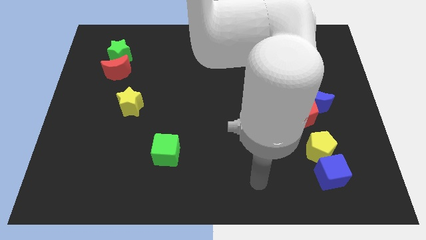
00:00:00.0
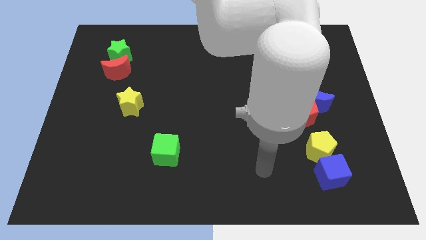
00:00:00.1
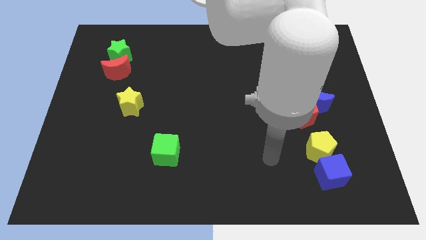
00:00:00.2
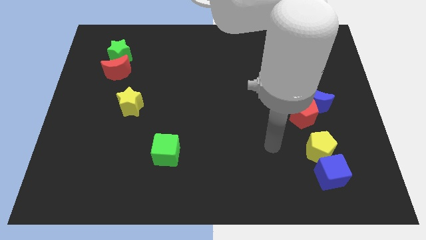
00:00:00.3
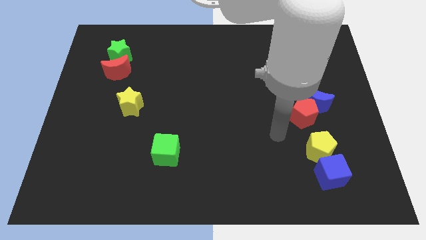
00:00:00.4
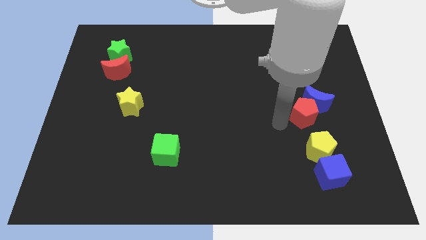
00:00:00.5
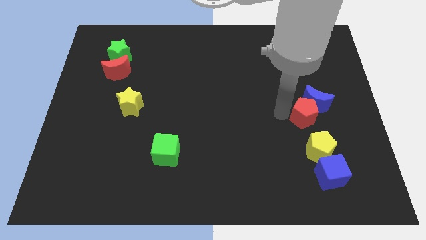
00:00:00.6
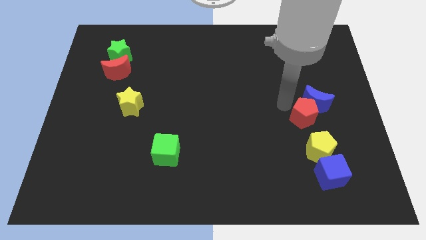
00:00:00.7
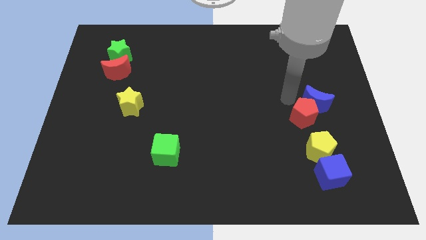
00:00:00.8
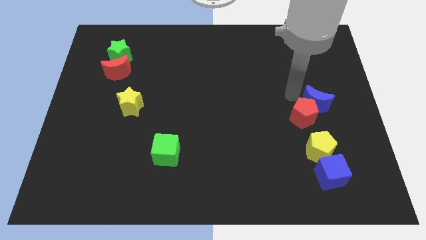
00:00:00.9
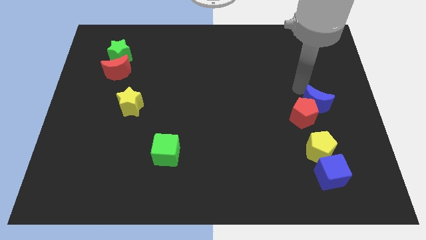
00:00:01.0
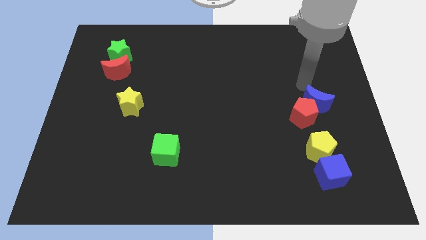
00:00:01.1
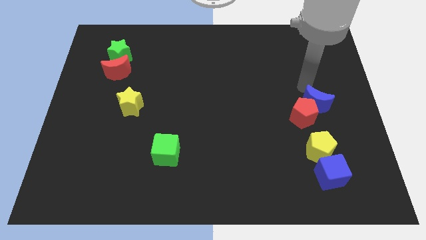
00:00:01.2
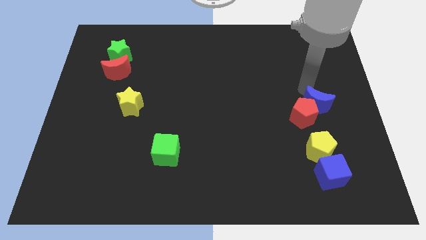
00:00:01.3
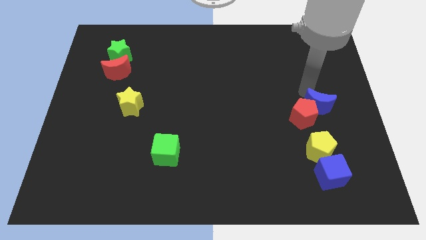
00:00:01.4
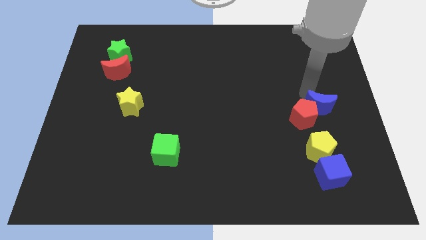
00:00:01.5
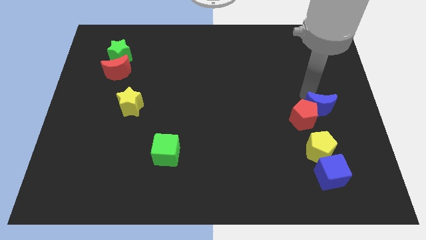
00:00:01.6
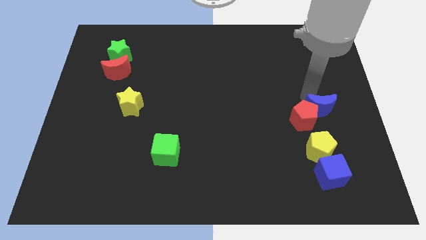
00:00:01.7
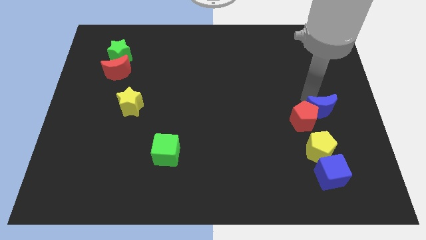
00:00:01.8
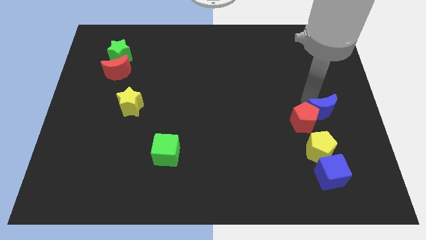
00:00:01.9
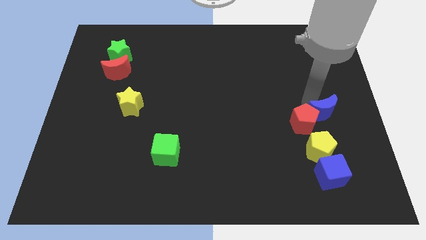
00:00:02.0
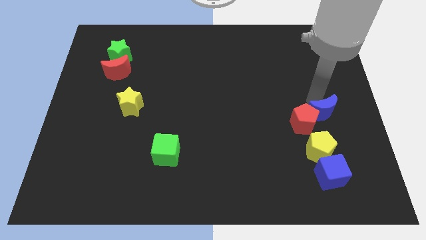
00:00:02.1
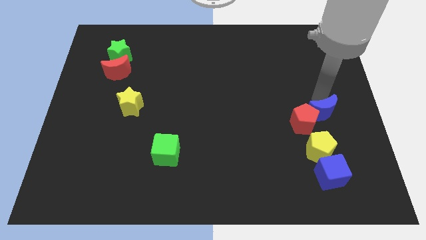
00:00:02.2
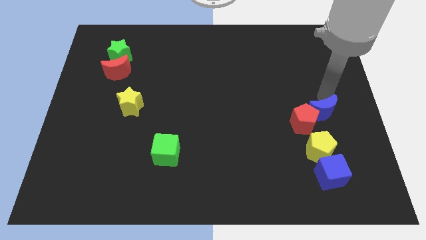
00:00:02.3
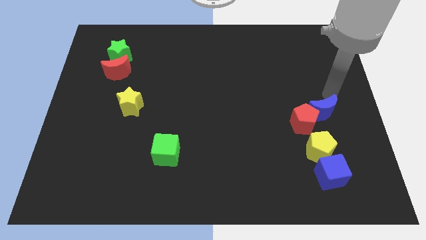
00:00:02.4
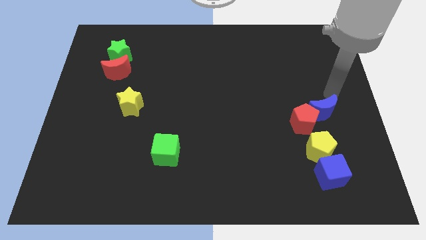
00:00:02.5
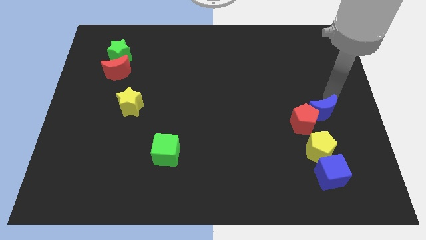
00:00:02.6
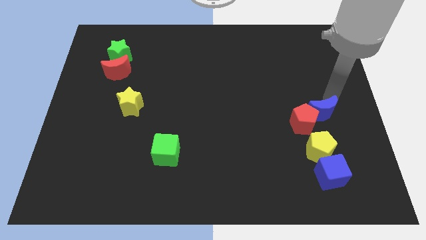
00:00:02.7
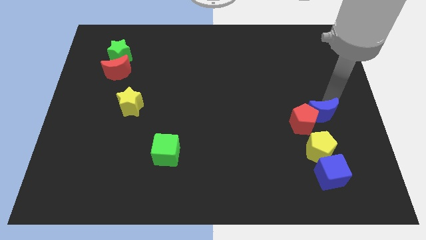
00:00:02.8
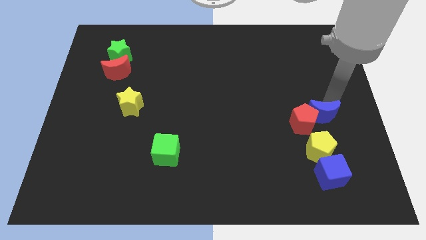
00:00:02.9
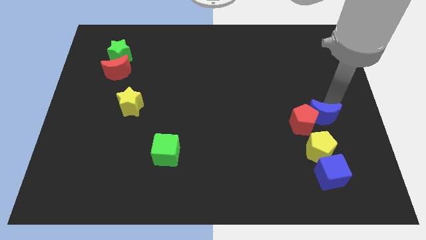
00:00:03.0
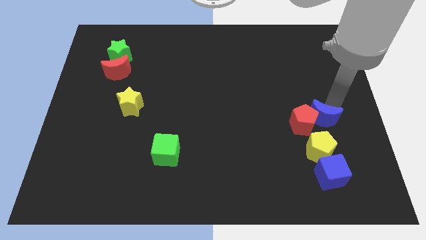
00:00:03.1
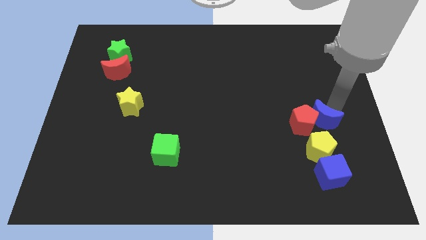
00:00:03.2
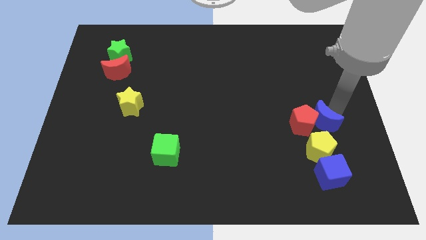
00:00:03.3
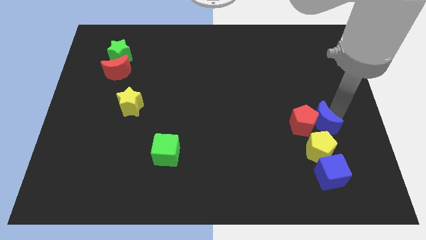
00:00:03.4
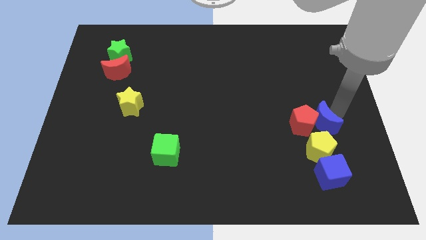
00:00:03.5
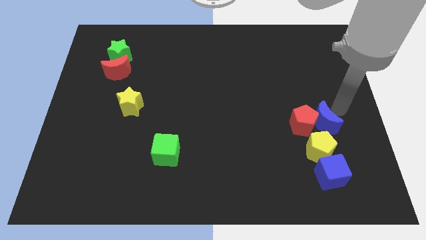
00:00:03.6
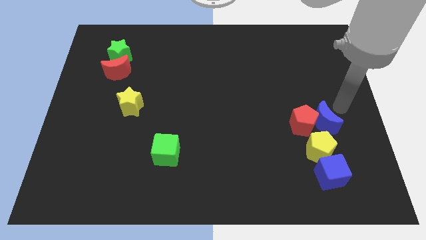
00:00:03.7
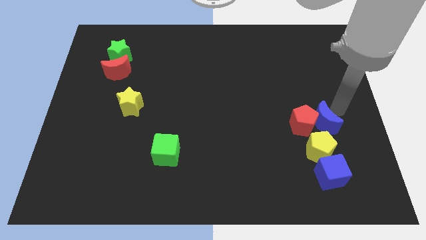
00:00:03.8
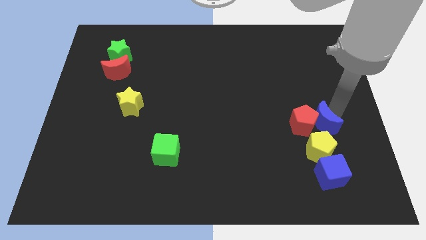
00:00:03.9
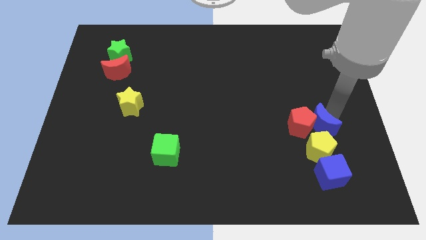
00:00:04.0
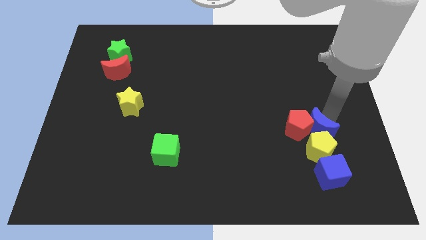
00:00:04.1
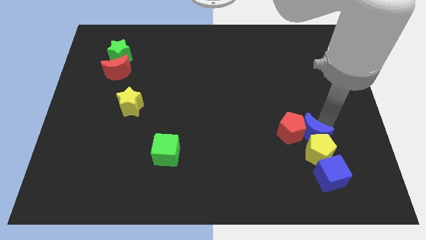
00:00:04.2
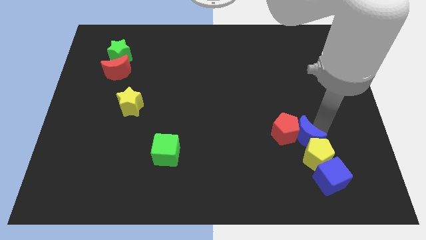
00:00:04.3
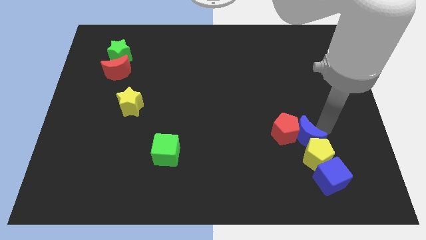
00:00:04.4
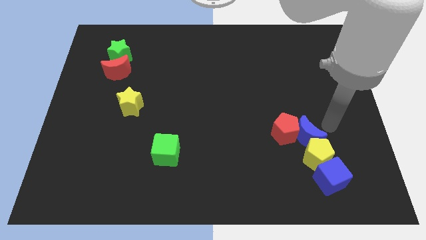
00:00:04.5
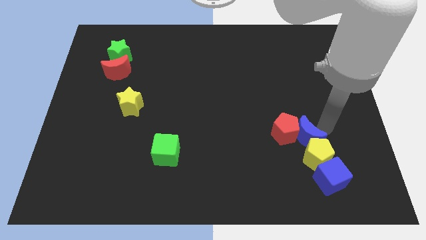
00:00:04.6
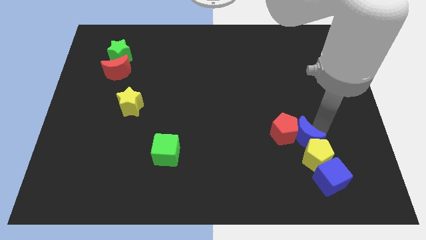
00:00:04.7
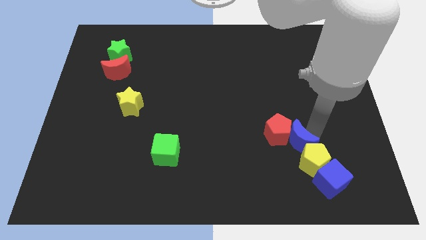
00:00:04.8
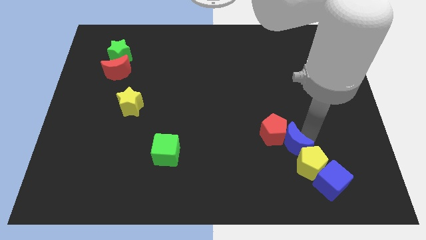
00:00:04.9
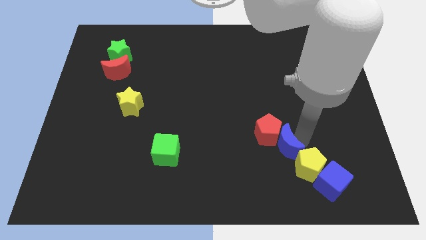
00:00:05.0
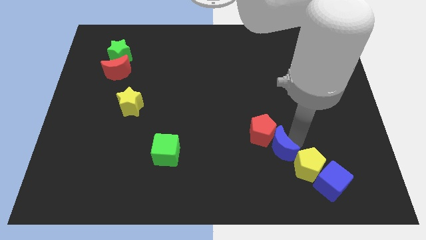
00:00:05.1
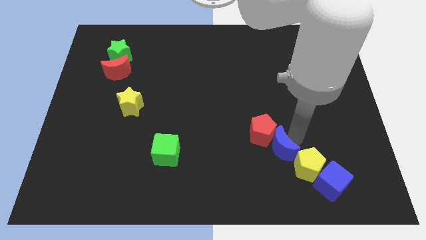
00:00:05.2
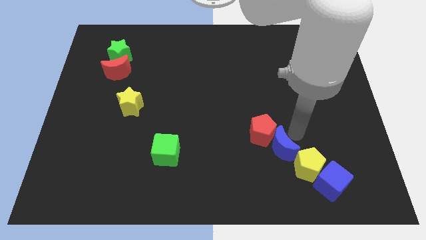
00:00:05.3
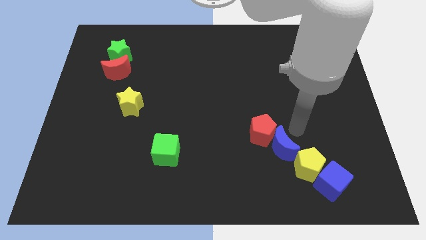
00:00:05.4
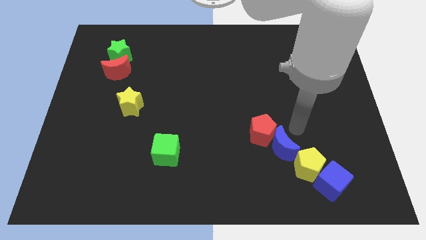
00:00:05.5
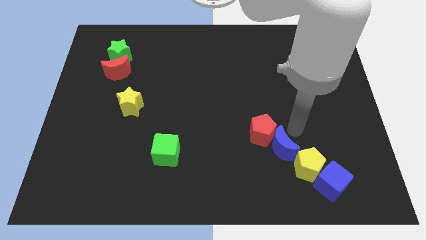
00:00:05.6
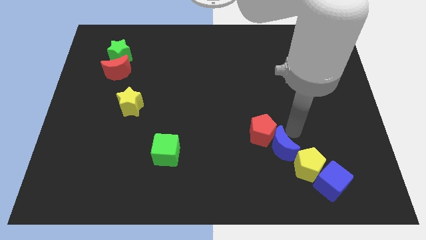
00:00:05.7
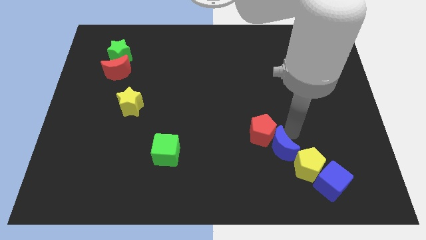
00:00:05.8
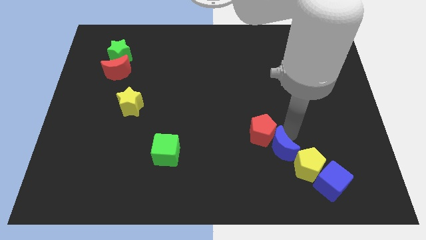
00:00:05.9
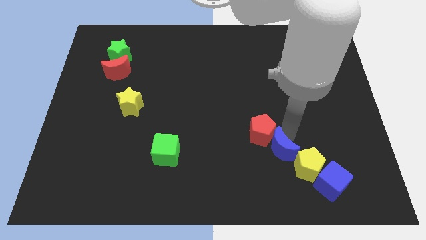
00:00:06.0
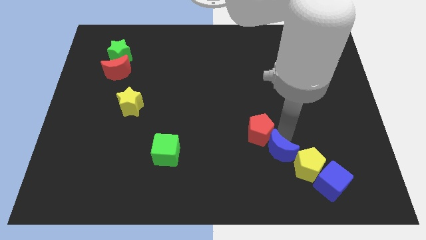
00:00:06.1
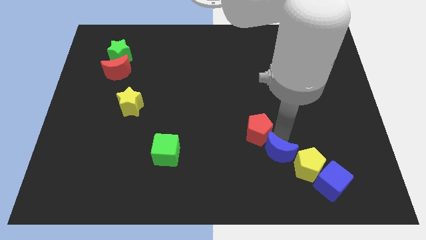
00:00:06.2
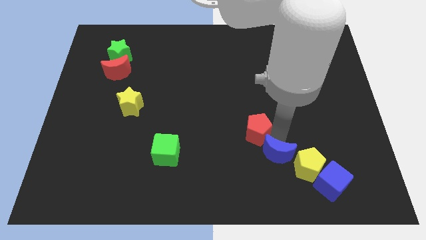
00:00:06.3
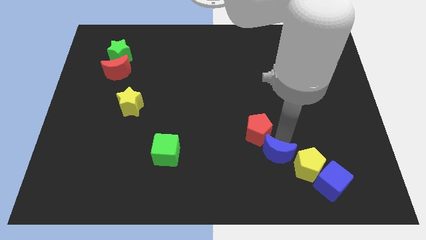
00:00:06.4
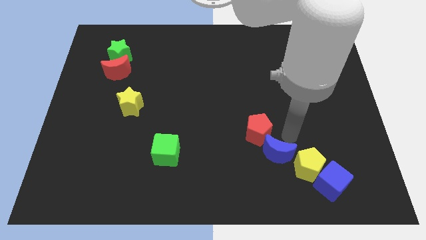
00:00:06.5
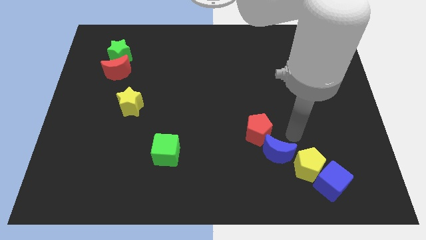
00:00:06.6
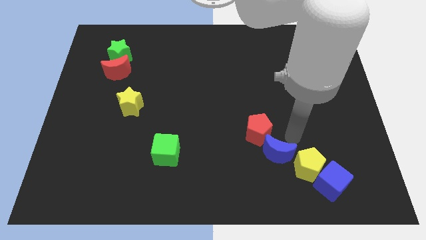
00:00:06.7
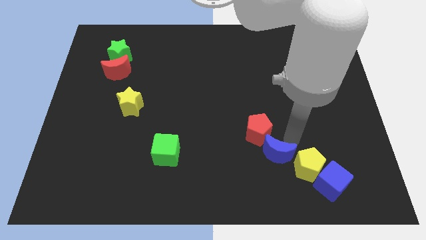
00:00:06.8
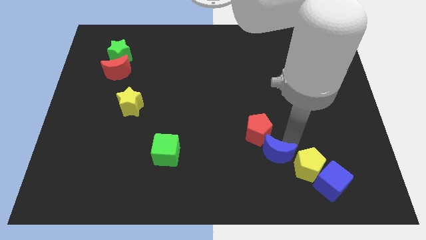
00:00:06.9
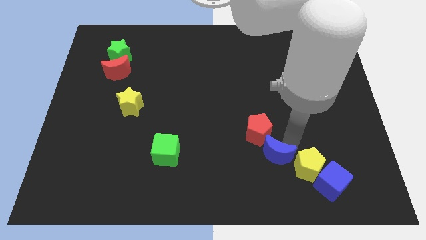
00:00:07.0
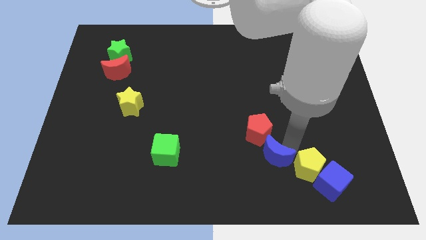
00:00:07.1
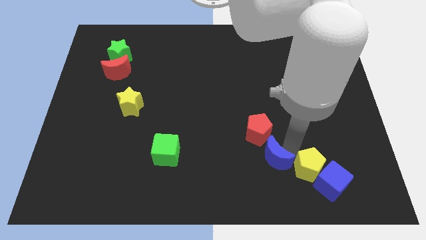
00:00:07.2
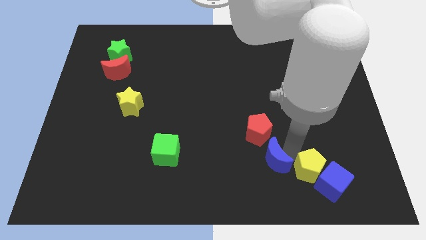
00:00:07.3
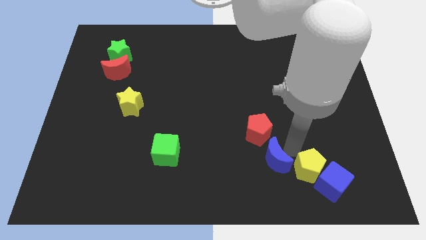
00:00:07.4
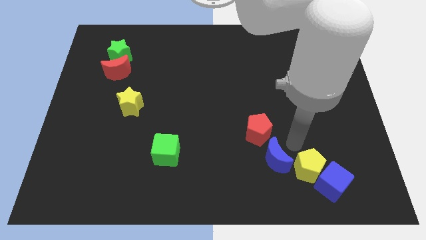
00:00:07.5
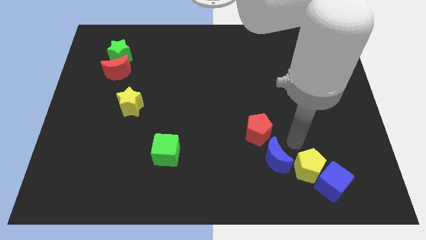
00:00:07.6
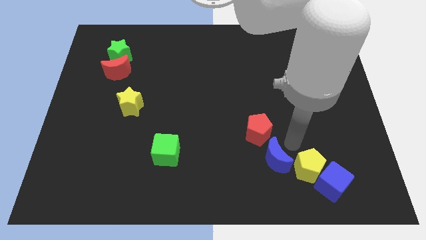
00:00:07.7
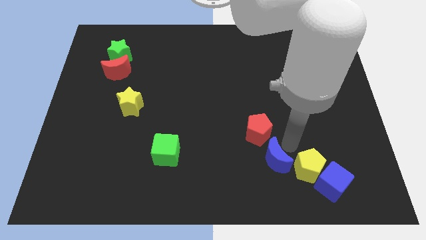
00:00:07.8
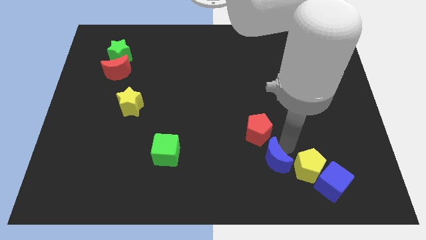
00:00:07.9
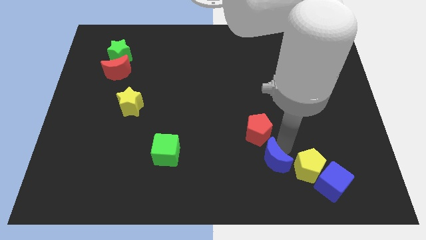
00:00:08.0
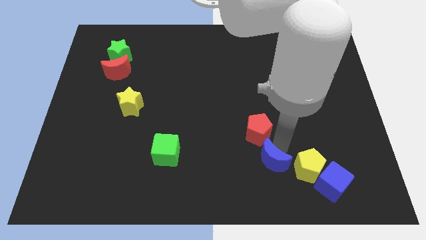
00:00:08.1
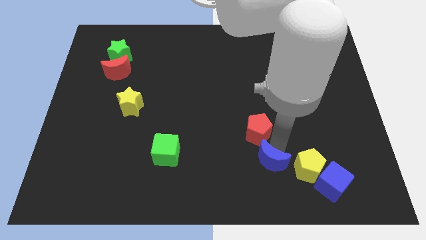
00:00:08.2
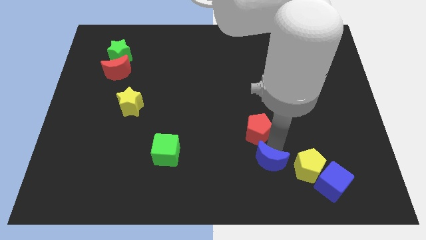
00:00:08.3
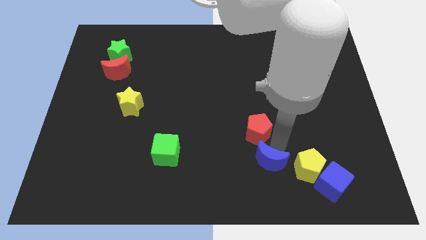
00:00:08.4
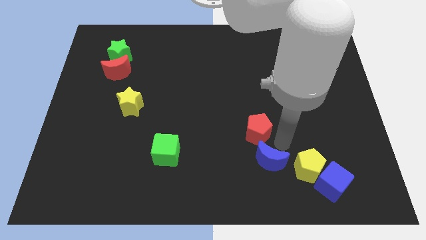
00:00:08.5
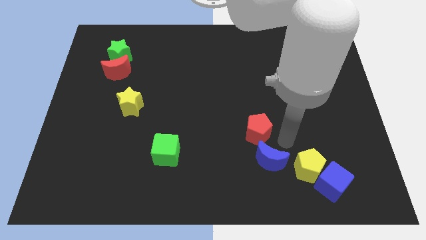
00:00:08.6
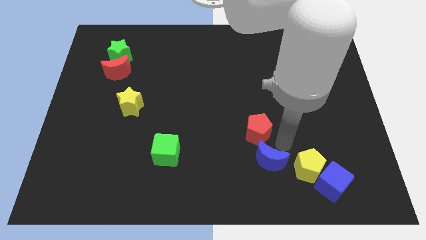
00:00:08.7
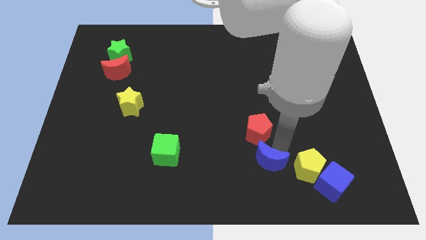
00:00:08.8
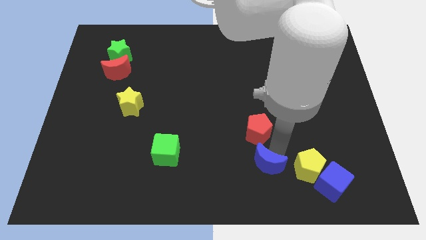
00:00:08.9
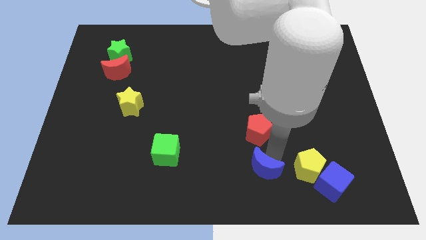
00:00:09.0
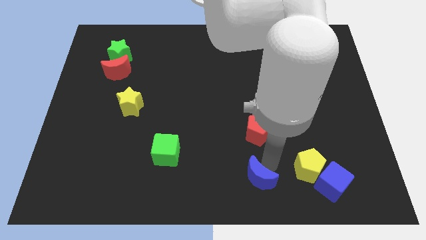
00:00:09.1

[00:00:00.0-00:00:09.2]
slide the blue moon to the bottom side
